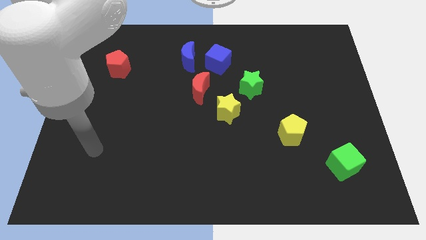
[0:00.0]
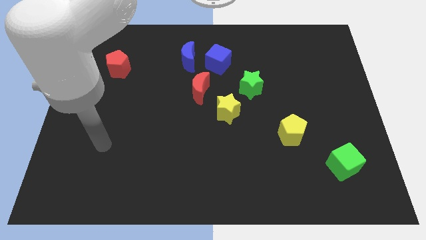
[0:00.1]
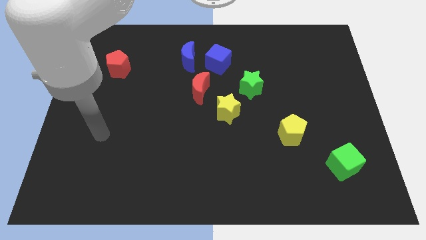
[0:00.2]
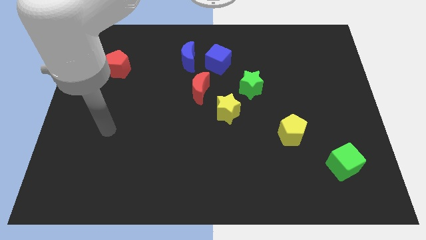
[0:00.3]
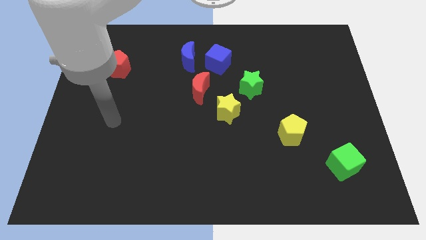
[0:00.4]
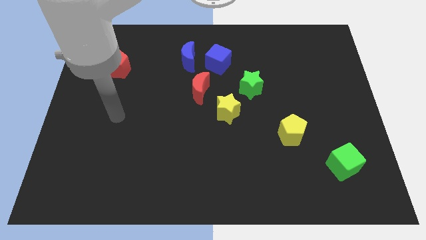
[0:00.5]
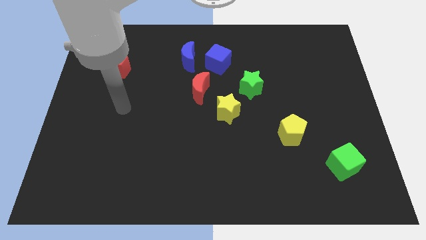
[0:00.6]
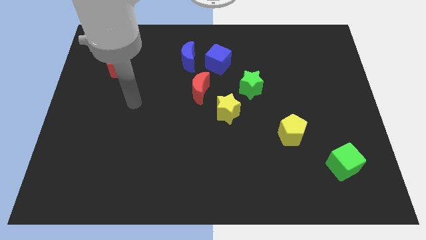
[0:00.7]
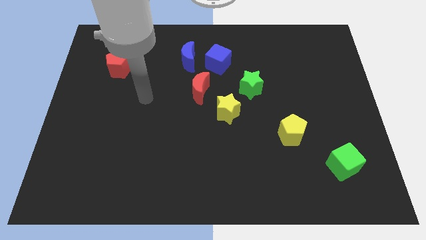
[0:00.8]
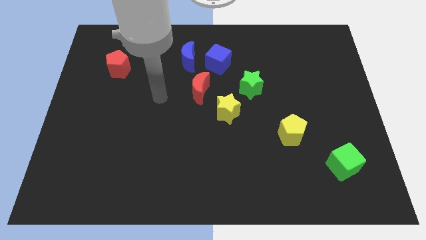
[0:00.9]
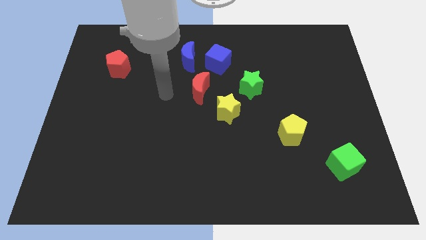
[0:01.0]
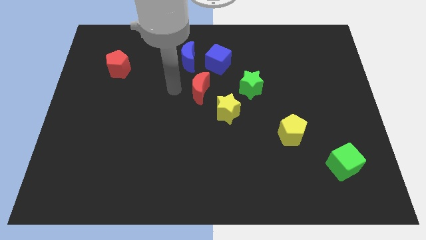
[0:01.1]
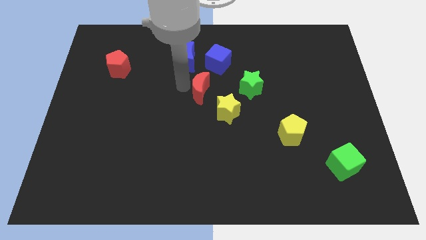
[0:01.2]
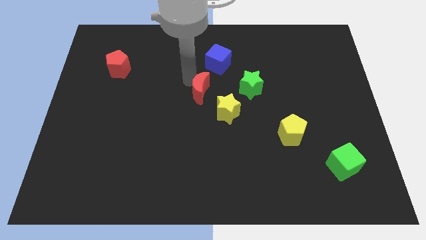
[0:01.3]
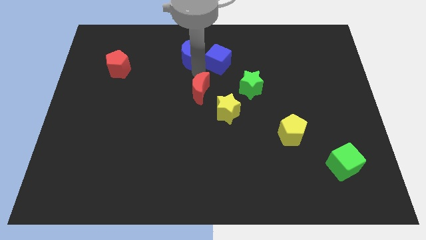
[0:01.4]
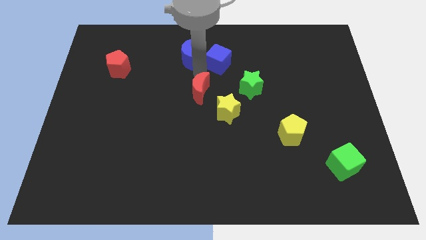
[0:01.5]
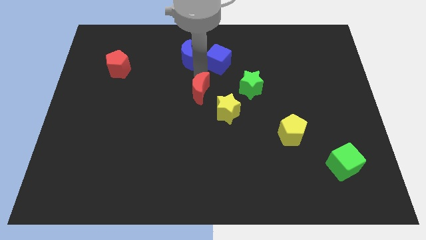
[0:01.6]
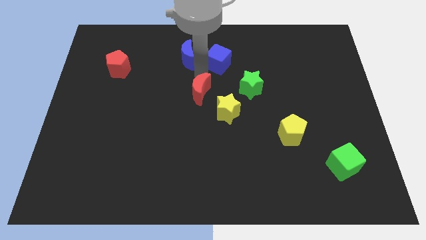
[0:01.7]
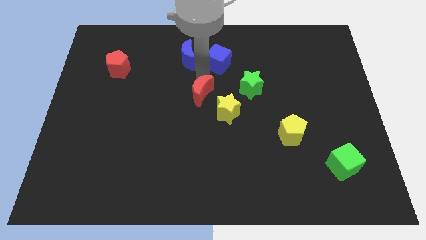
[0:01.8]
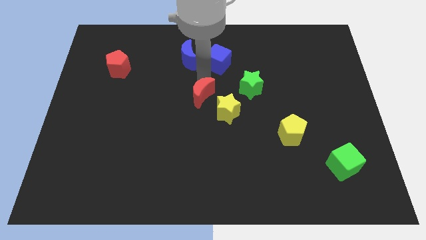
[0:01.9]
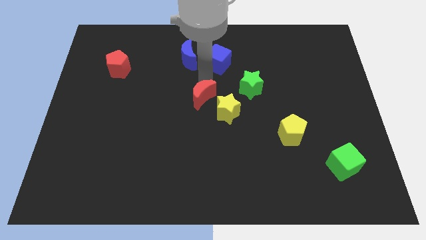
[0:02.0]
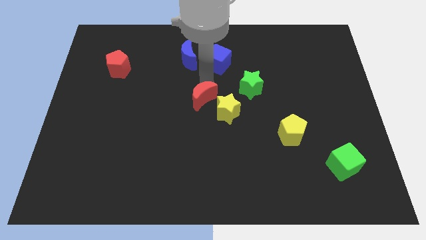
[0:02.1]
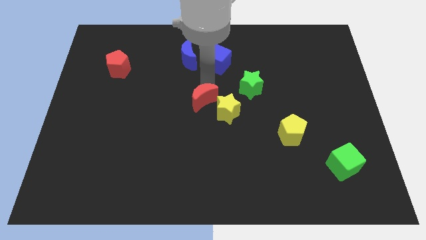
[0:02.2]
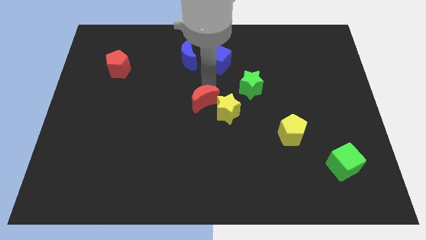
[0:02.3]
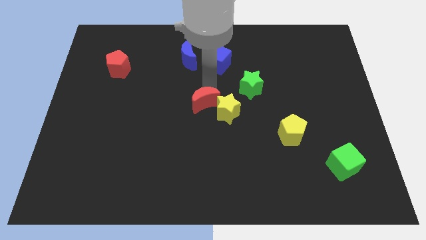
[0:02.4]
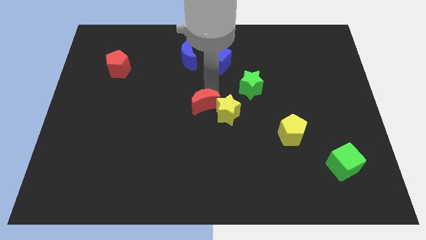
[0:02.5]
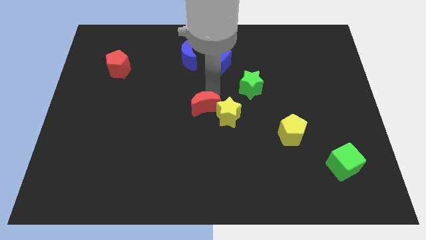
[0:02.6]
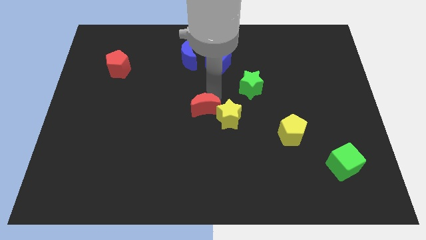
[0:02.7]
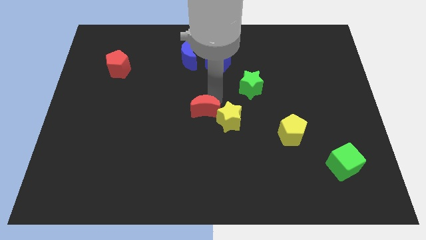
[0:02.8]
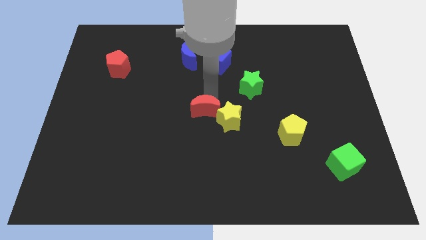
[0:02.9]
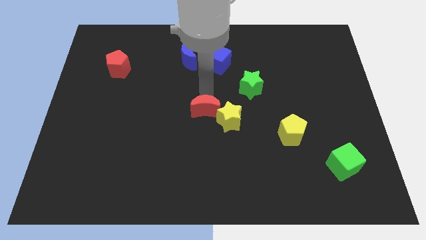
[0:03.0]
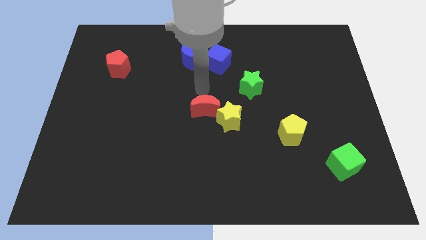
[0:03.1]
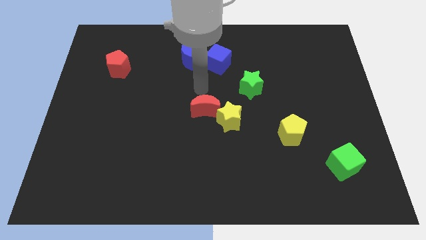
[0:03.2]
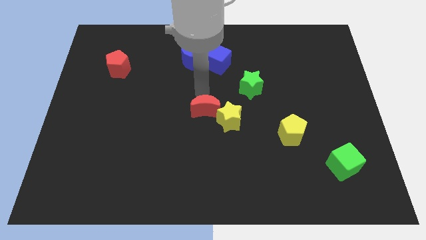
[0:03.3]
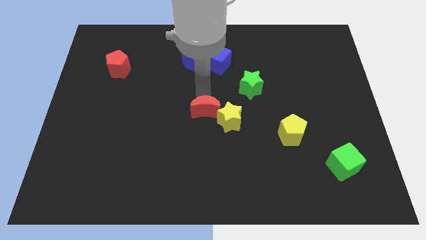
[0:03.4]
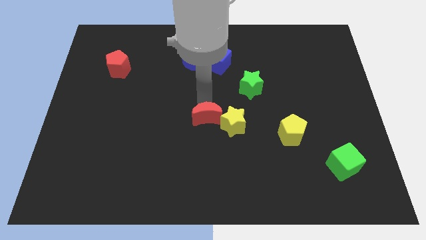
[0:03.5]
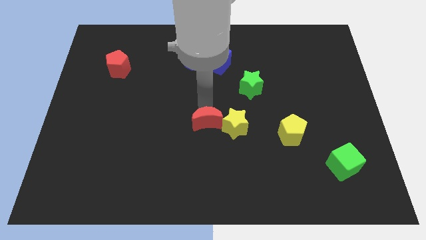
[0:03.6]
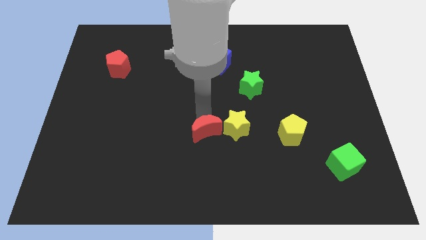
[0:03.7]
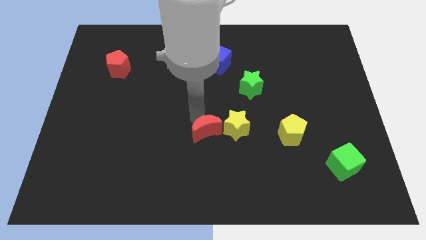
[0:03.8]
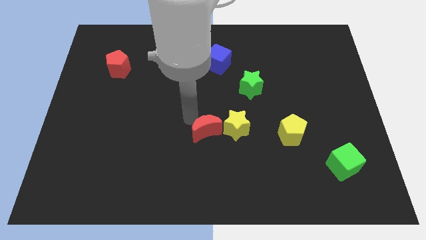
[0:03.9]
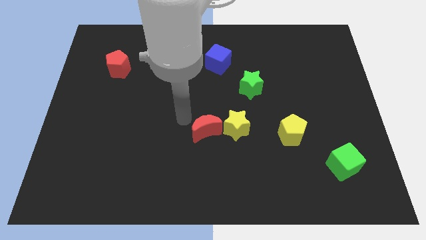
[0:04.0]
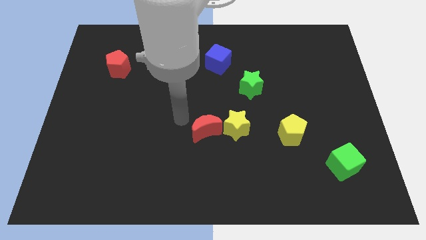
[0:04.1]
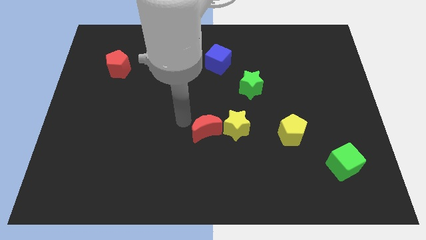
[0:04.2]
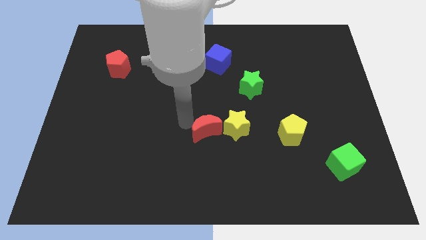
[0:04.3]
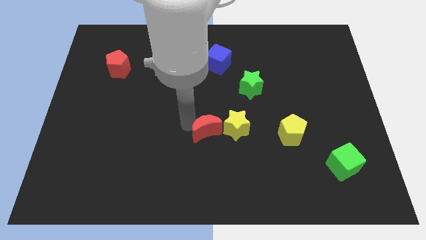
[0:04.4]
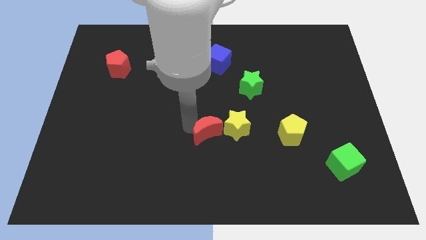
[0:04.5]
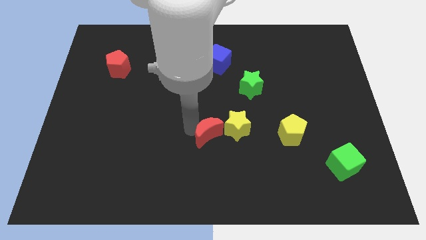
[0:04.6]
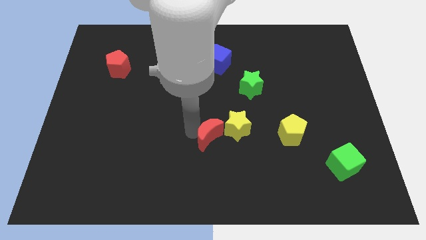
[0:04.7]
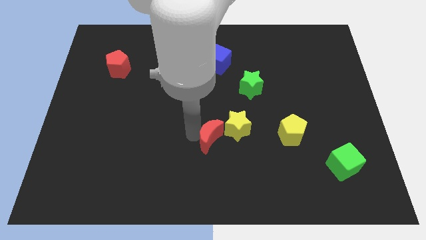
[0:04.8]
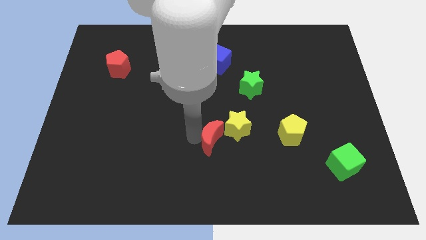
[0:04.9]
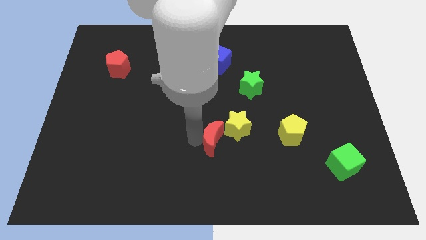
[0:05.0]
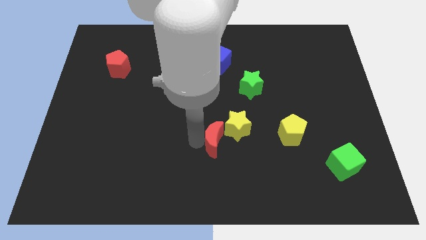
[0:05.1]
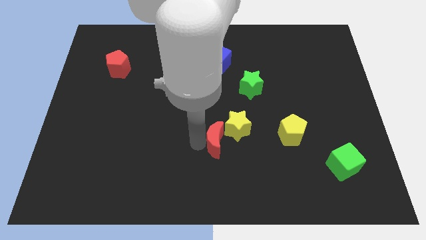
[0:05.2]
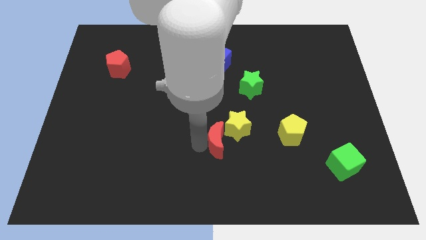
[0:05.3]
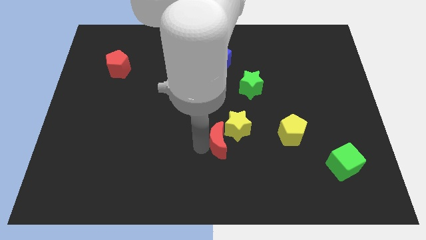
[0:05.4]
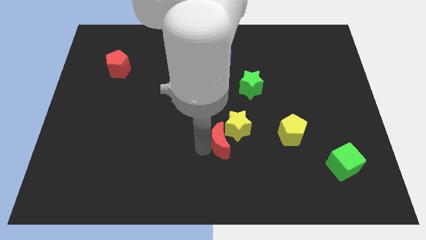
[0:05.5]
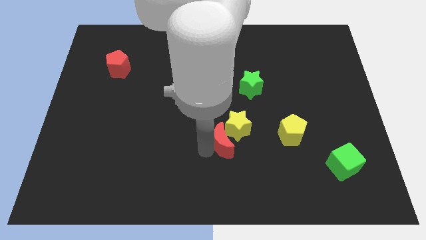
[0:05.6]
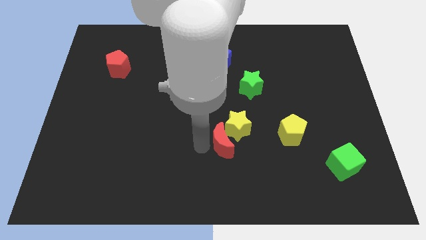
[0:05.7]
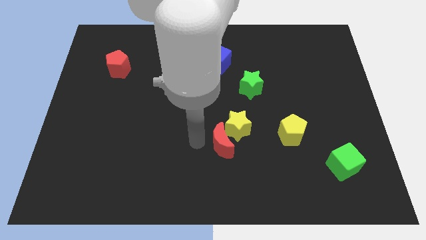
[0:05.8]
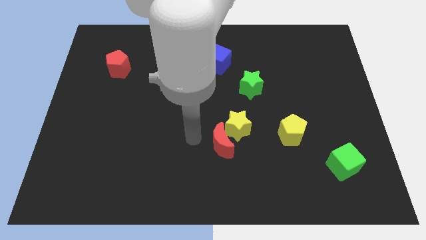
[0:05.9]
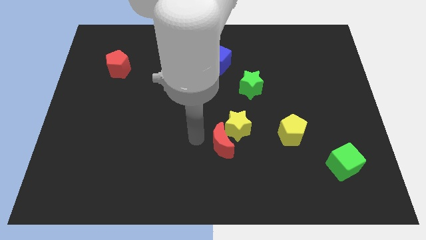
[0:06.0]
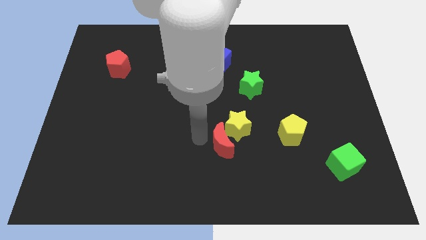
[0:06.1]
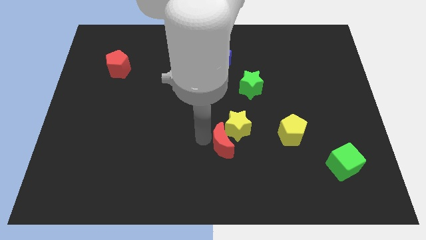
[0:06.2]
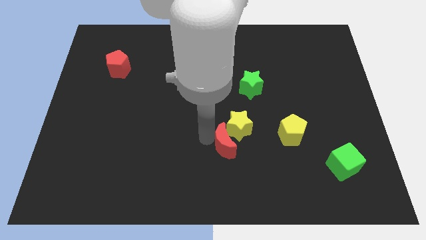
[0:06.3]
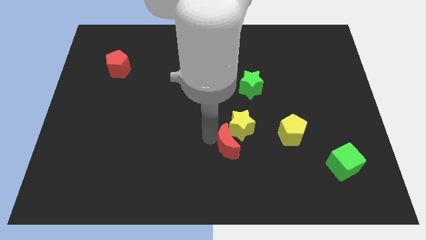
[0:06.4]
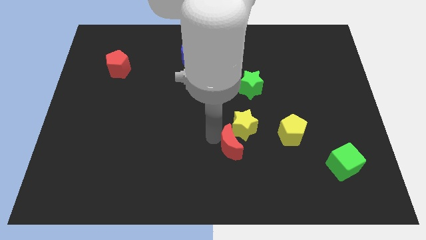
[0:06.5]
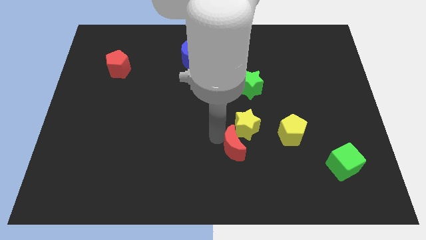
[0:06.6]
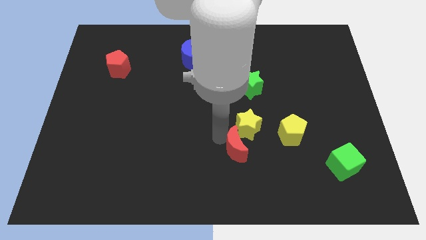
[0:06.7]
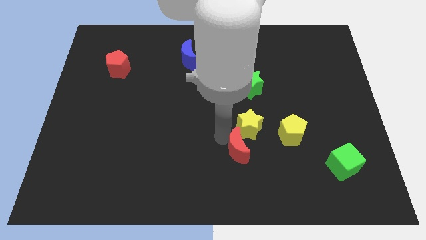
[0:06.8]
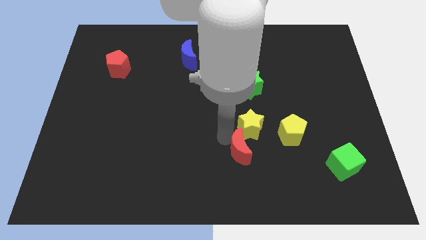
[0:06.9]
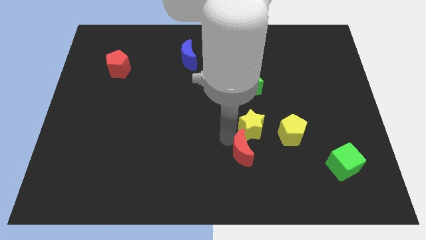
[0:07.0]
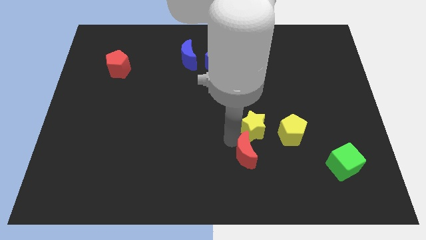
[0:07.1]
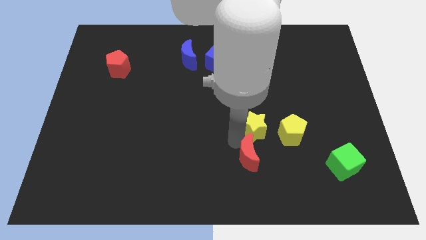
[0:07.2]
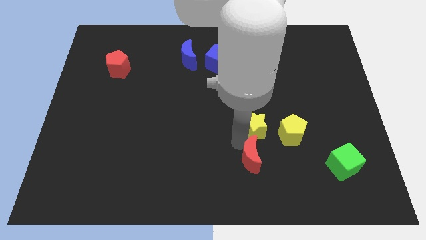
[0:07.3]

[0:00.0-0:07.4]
push the red moon down and right diagonally

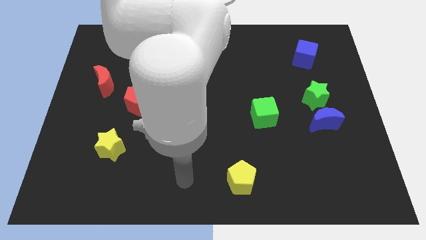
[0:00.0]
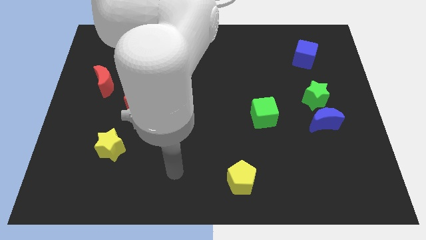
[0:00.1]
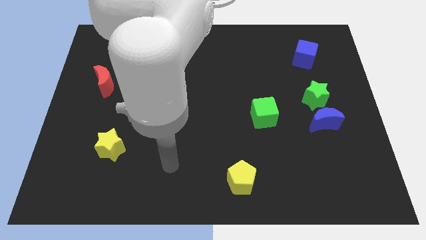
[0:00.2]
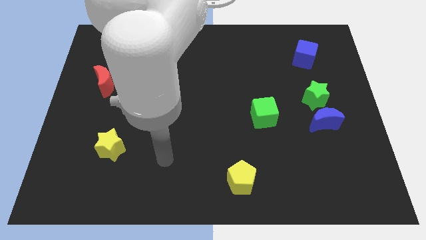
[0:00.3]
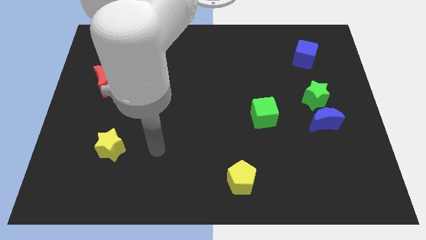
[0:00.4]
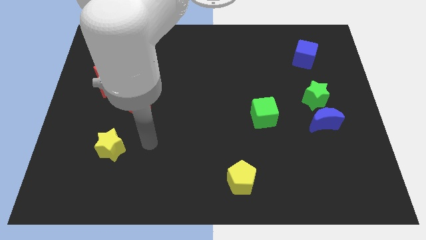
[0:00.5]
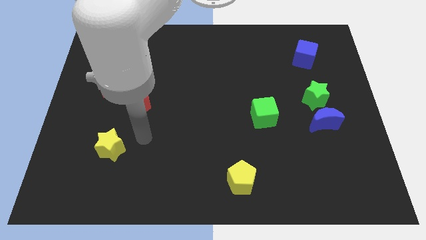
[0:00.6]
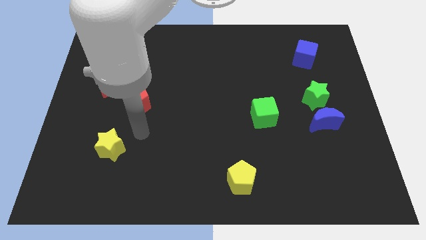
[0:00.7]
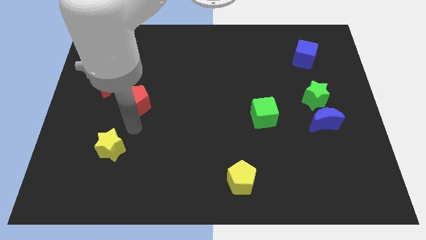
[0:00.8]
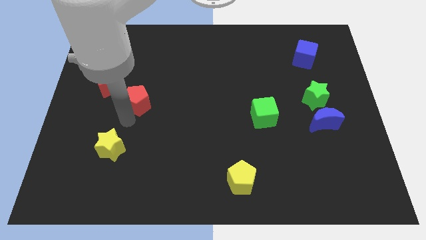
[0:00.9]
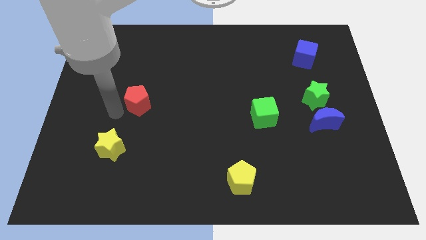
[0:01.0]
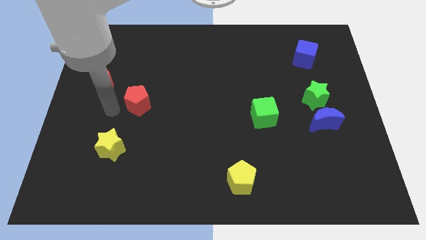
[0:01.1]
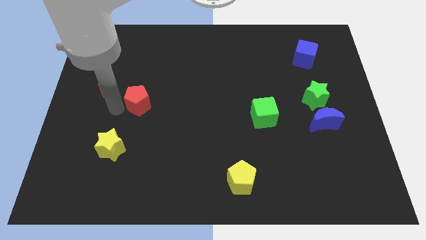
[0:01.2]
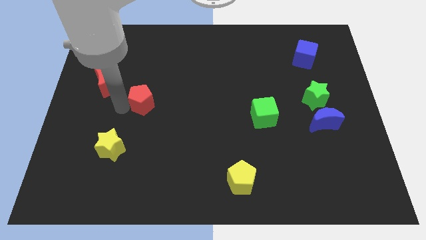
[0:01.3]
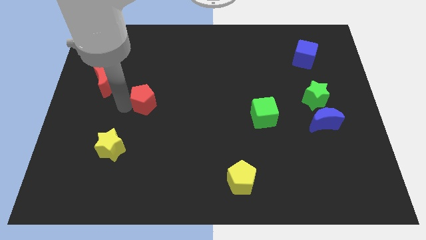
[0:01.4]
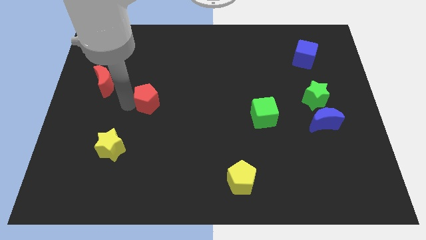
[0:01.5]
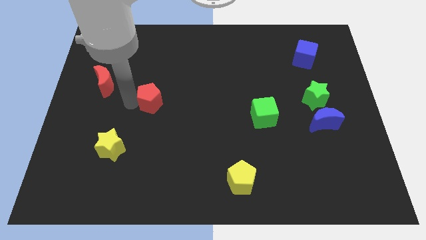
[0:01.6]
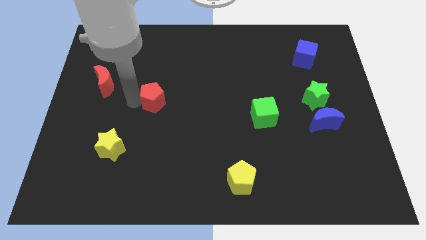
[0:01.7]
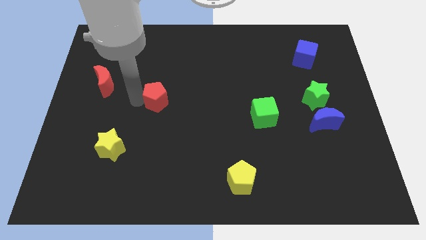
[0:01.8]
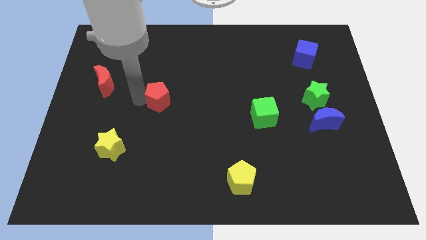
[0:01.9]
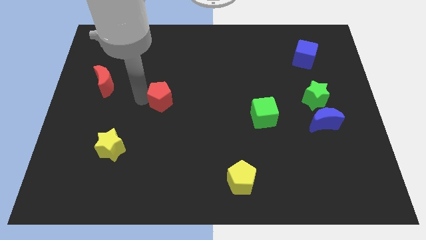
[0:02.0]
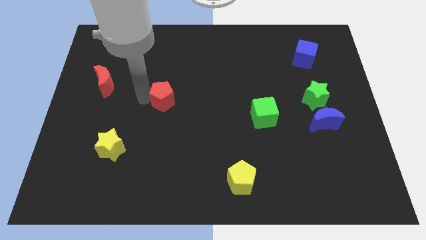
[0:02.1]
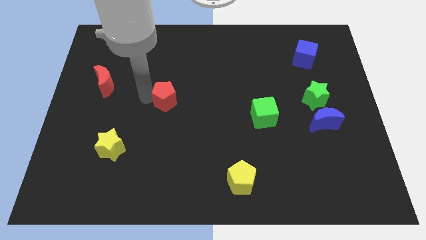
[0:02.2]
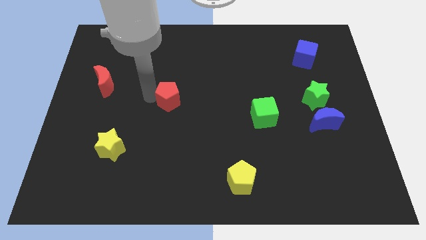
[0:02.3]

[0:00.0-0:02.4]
slide the red pentagon a little right
